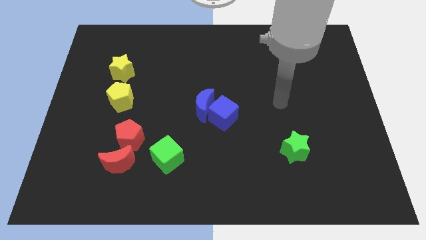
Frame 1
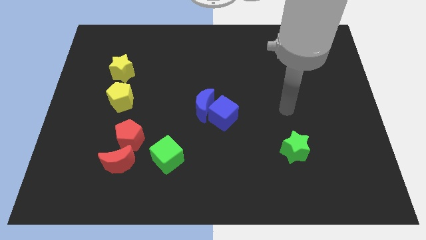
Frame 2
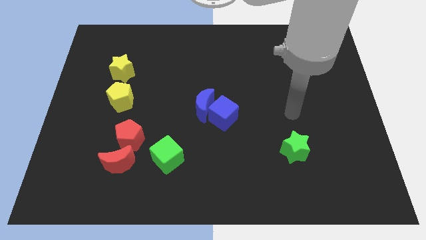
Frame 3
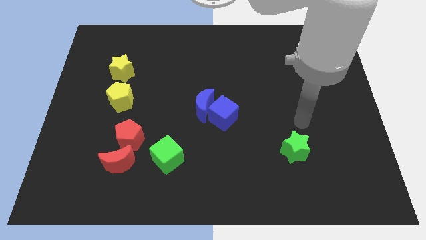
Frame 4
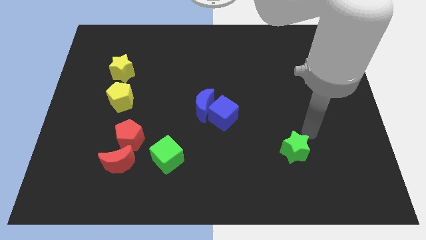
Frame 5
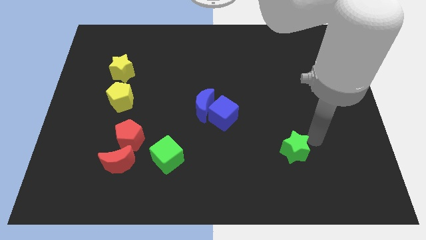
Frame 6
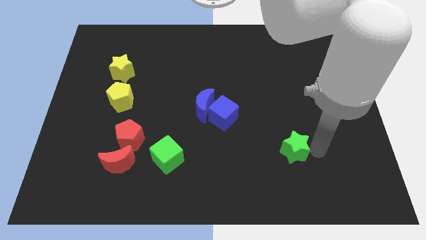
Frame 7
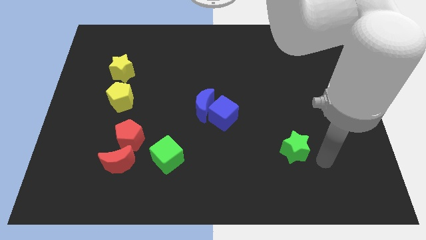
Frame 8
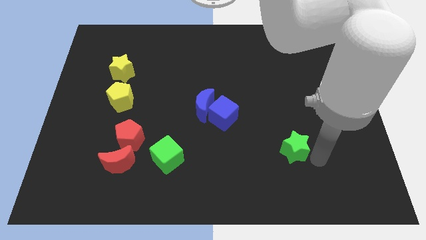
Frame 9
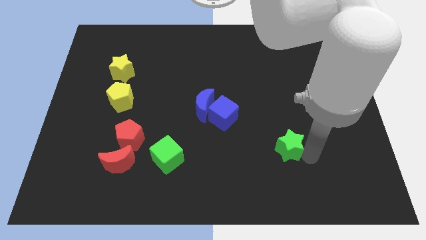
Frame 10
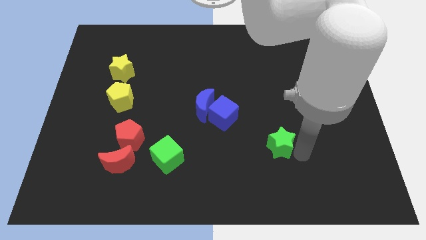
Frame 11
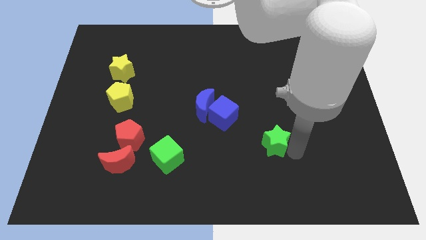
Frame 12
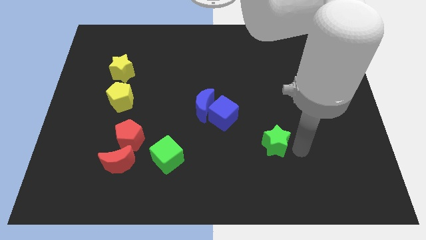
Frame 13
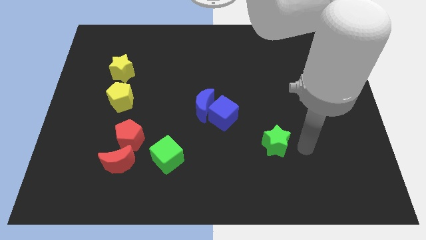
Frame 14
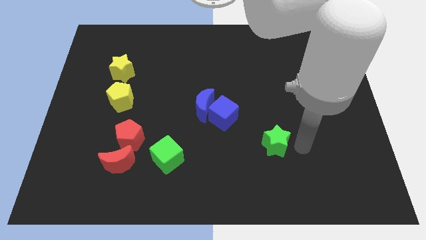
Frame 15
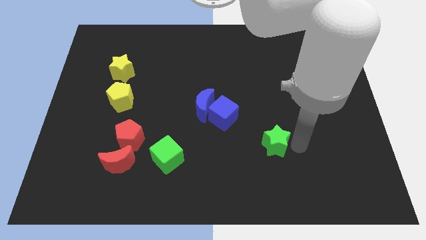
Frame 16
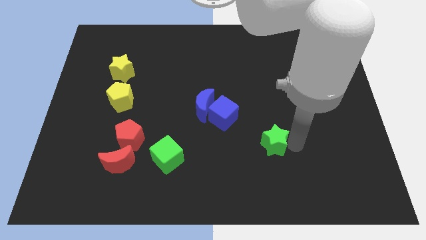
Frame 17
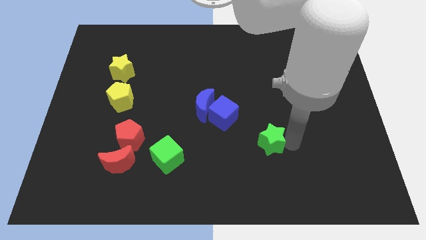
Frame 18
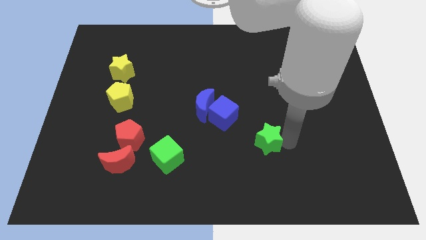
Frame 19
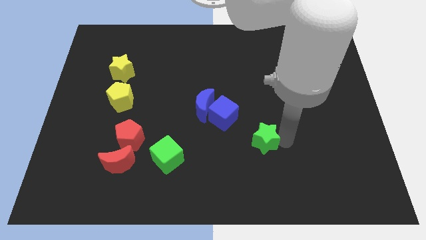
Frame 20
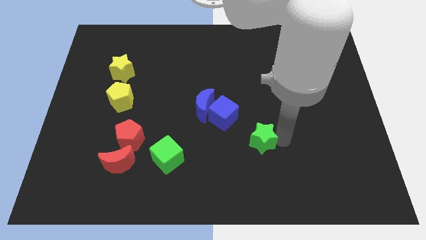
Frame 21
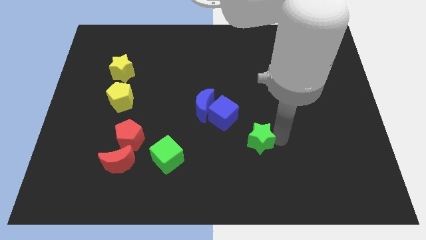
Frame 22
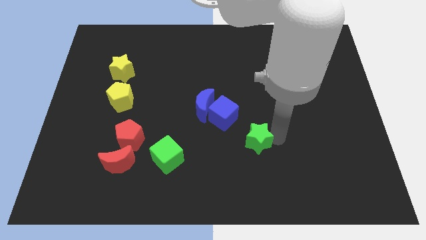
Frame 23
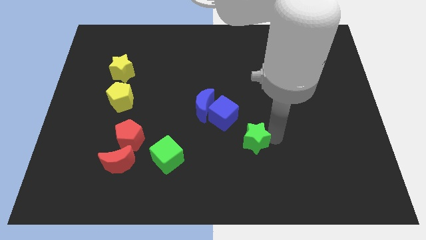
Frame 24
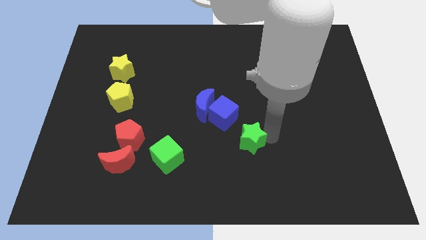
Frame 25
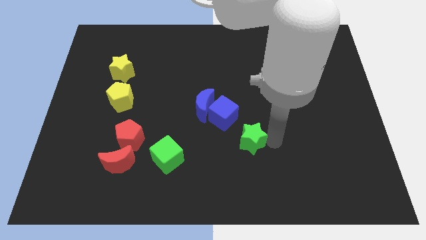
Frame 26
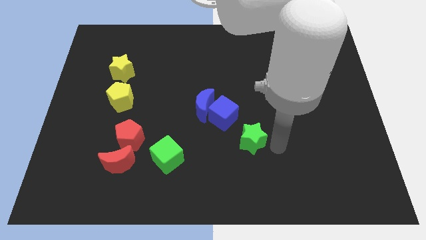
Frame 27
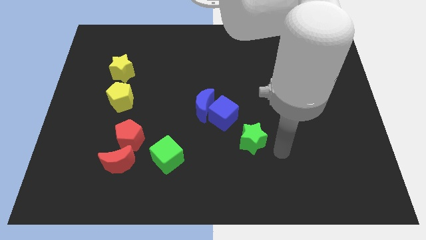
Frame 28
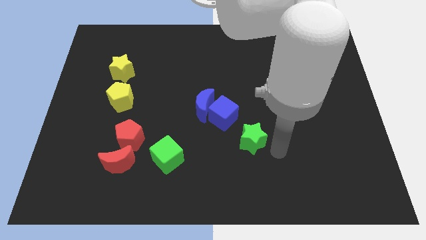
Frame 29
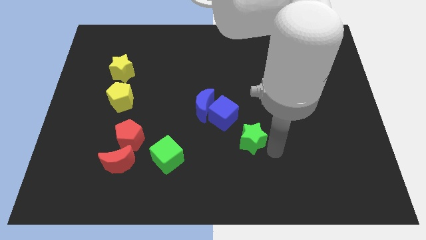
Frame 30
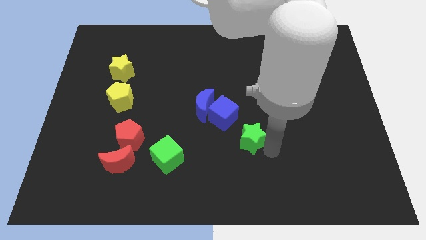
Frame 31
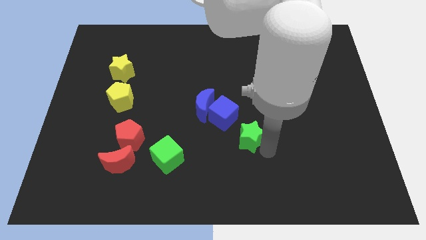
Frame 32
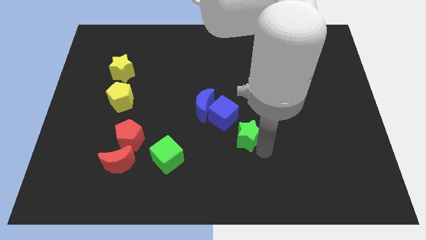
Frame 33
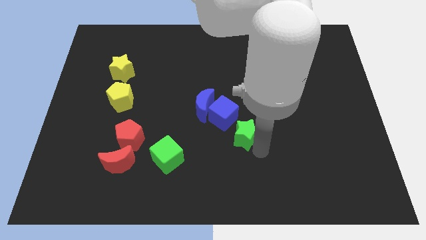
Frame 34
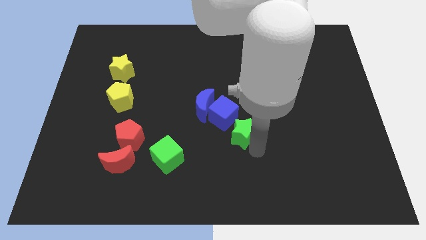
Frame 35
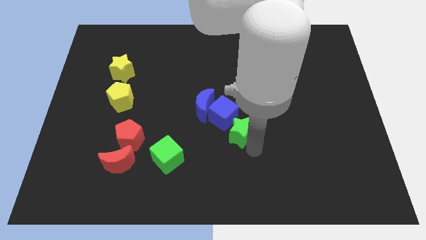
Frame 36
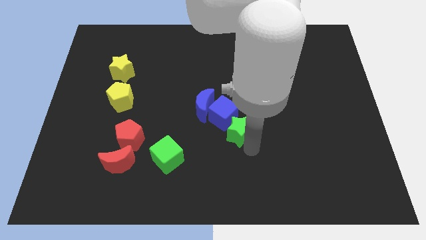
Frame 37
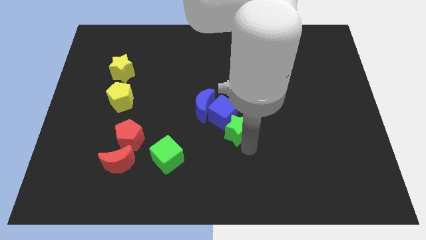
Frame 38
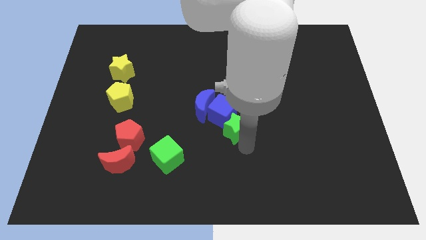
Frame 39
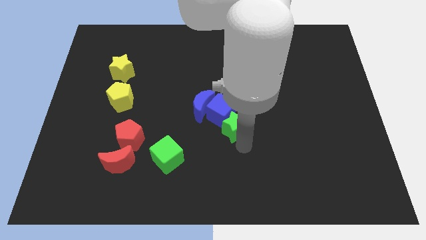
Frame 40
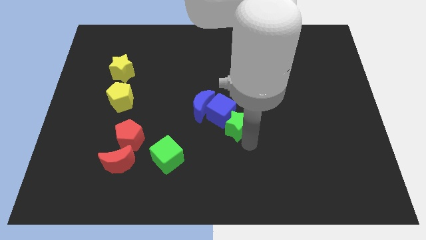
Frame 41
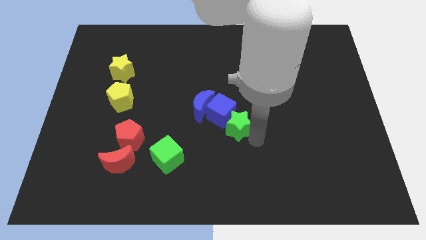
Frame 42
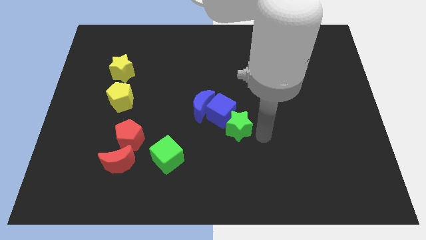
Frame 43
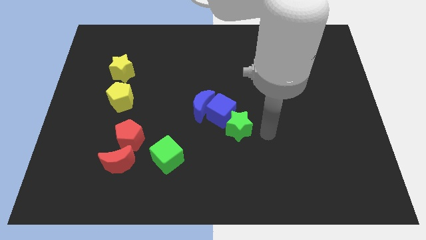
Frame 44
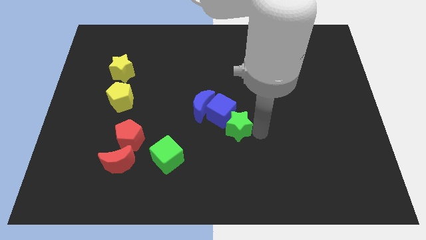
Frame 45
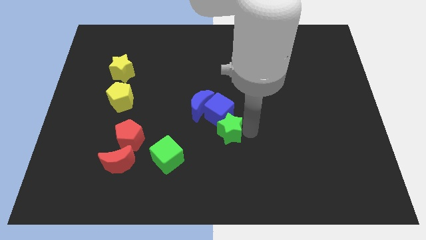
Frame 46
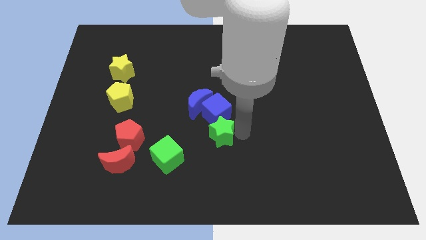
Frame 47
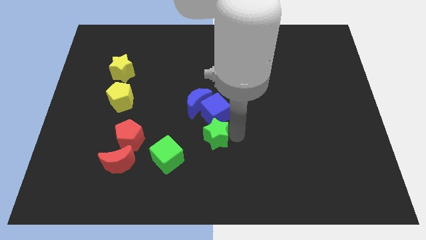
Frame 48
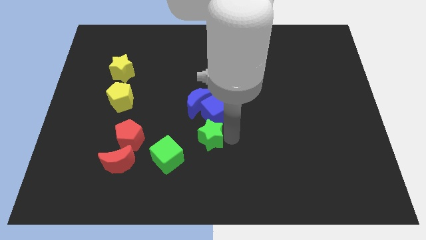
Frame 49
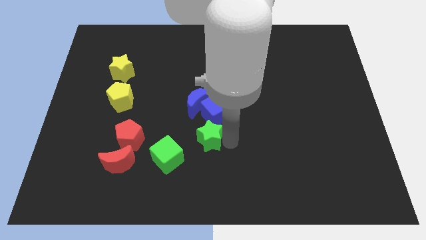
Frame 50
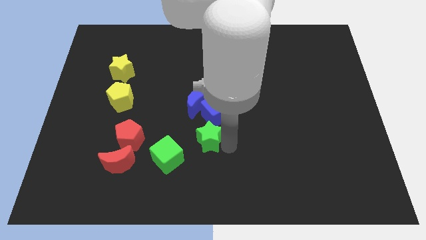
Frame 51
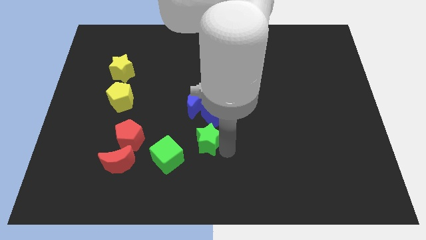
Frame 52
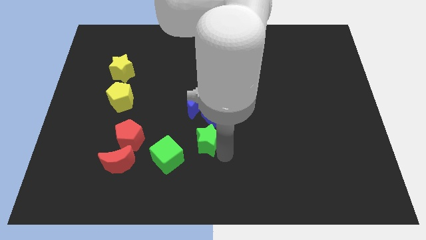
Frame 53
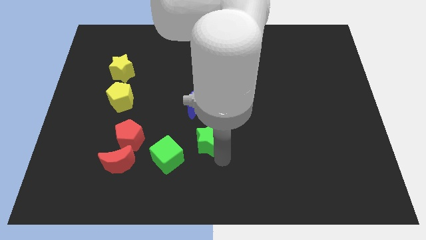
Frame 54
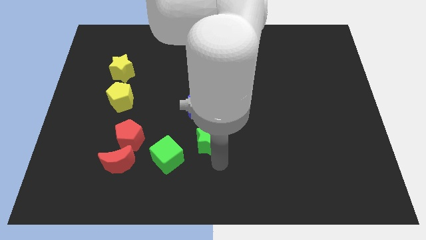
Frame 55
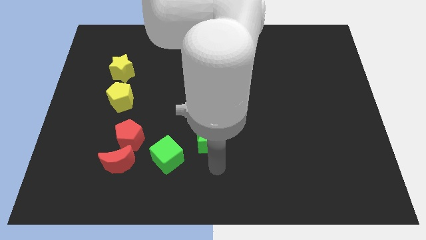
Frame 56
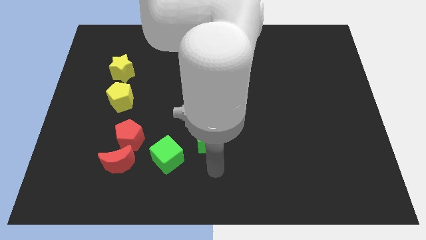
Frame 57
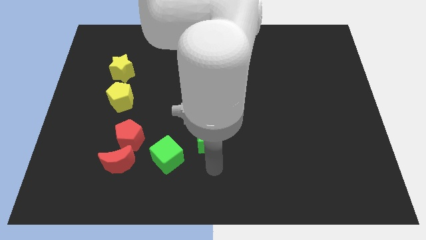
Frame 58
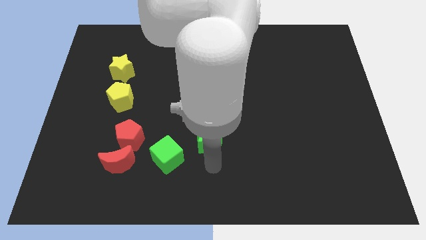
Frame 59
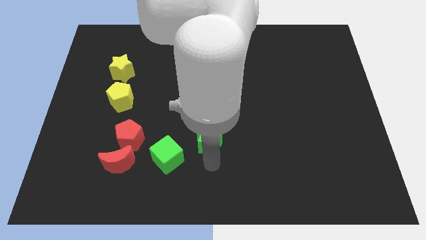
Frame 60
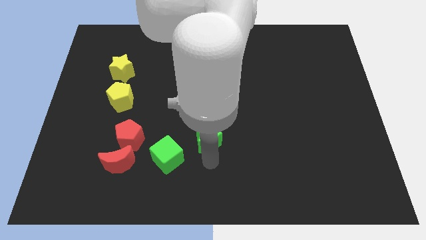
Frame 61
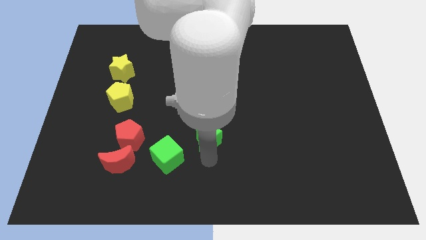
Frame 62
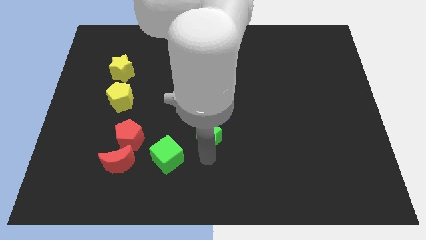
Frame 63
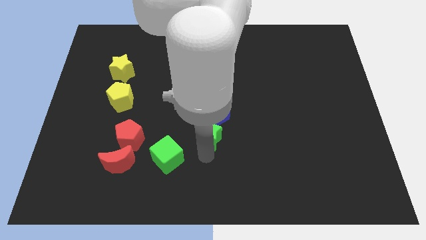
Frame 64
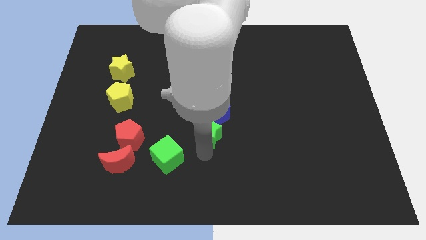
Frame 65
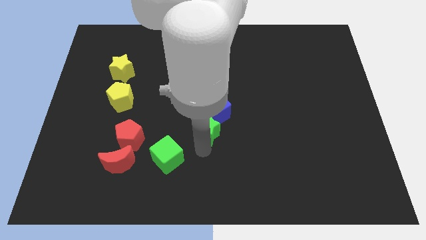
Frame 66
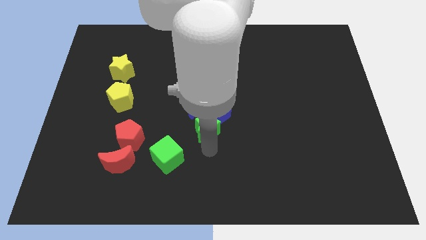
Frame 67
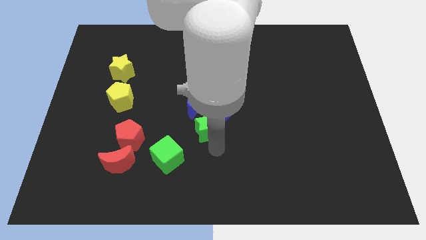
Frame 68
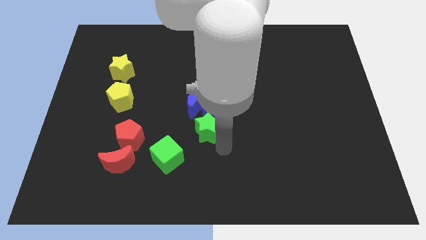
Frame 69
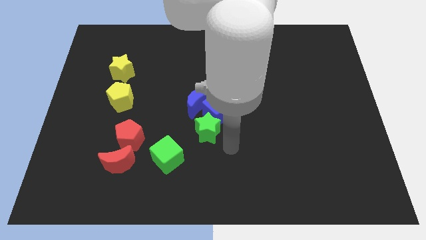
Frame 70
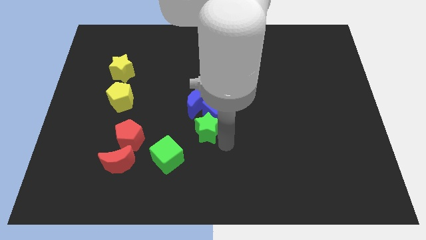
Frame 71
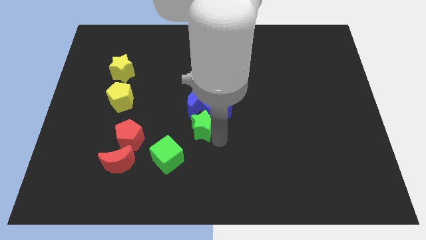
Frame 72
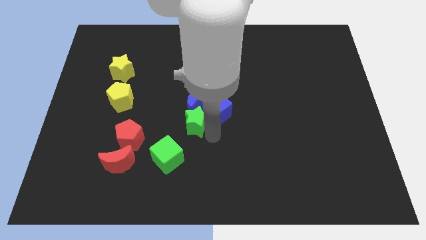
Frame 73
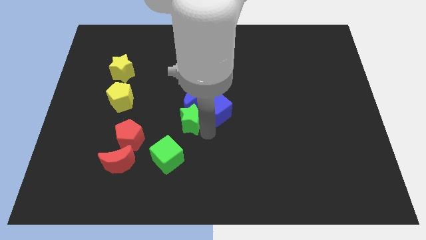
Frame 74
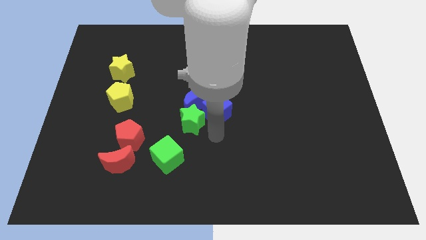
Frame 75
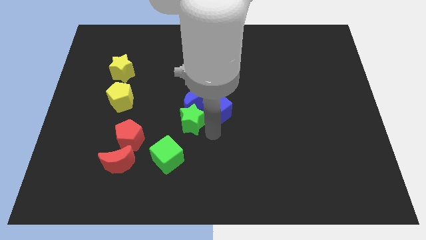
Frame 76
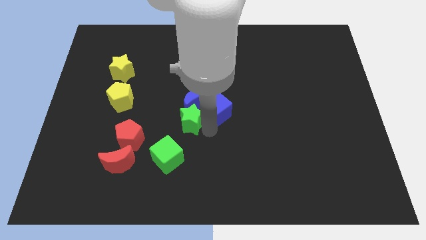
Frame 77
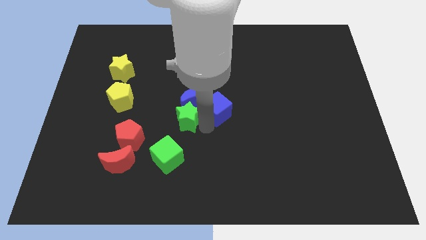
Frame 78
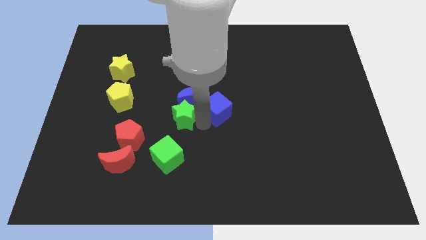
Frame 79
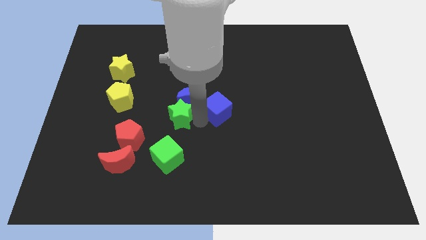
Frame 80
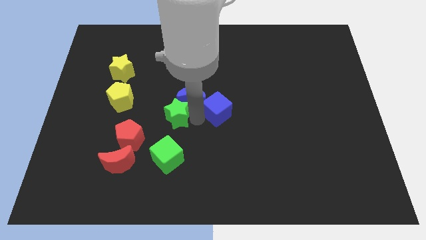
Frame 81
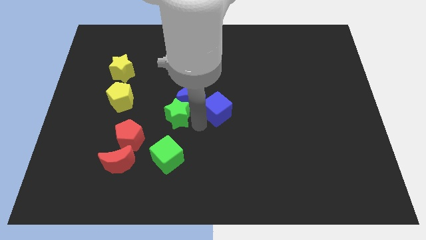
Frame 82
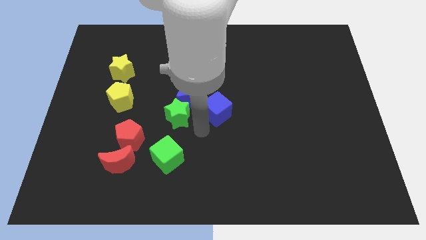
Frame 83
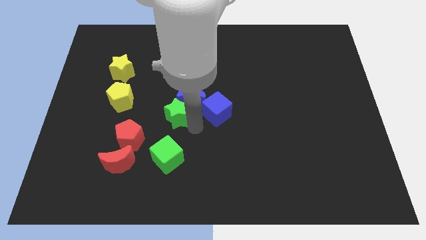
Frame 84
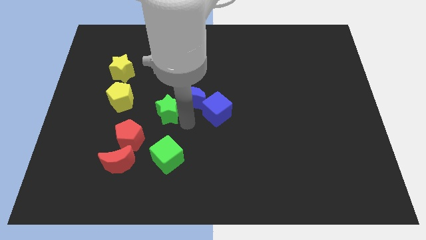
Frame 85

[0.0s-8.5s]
push the green star left of the blue moon
